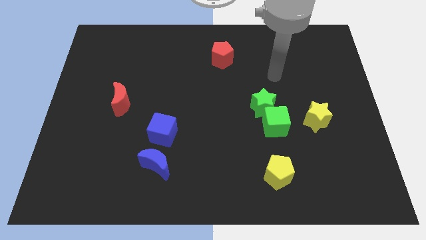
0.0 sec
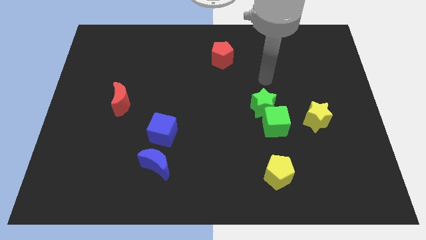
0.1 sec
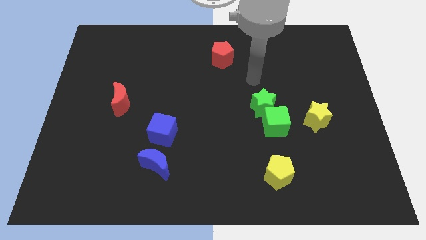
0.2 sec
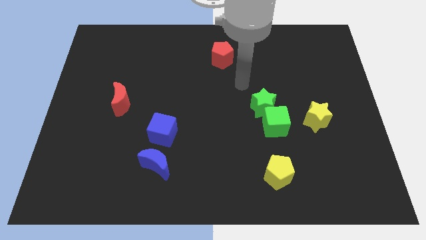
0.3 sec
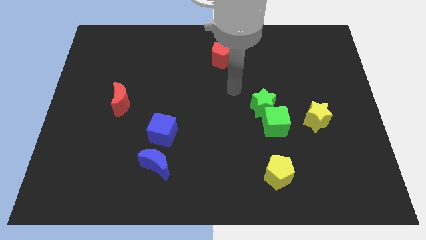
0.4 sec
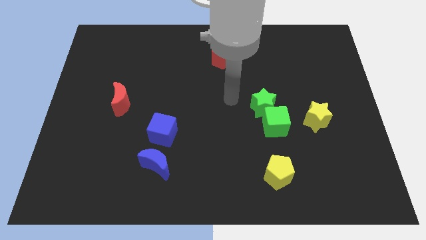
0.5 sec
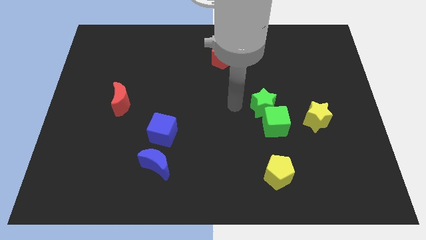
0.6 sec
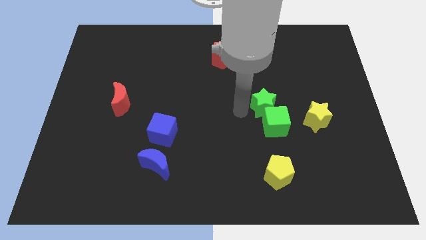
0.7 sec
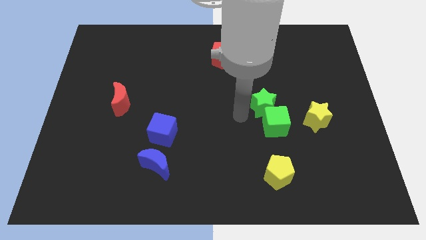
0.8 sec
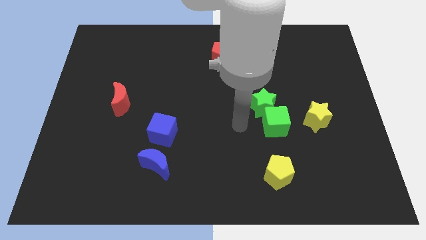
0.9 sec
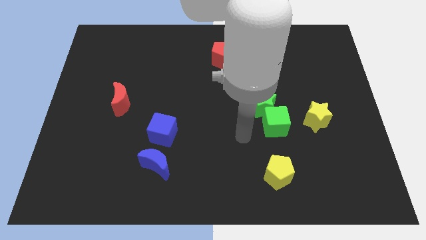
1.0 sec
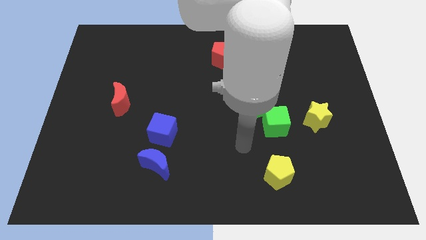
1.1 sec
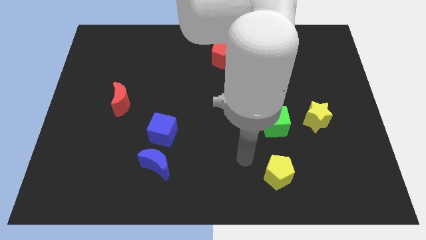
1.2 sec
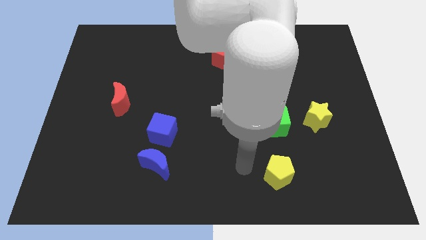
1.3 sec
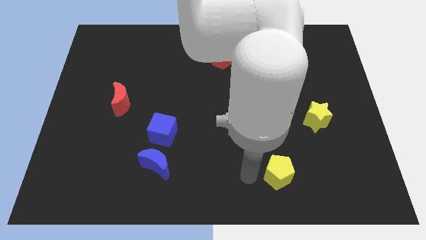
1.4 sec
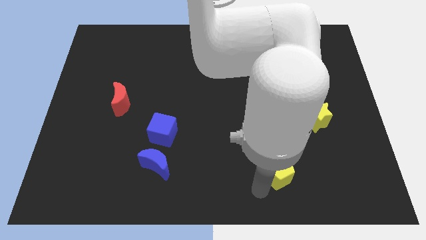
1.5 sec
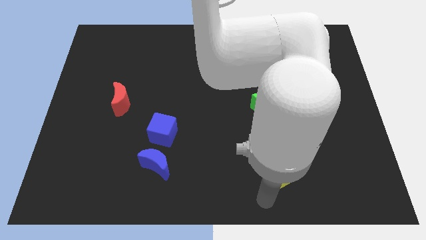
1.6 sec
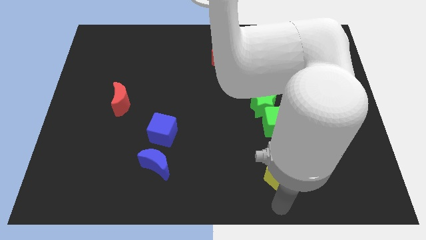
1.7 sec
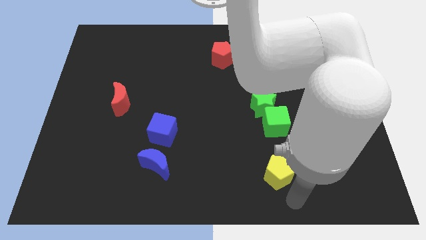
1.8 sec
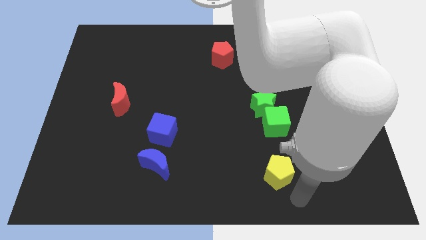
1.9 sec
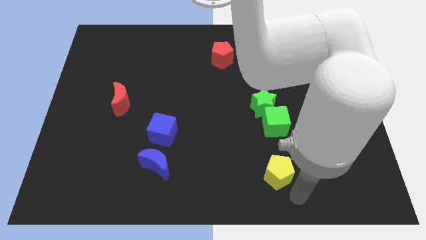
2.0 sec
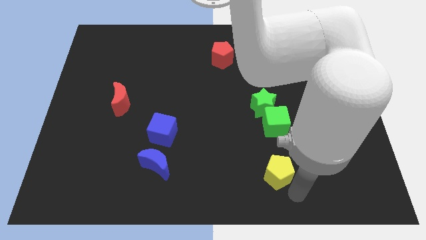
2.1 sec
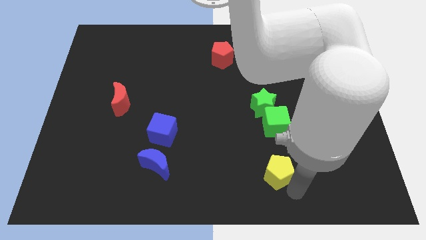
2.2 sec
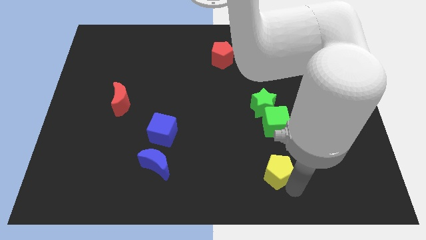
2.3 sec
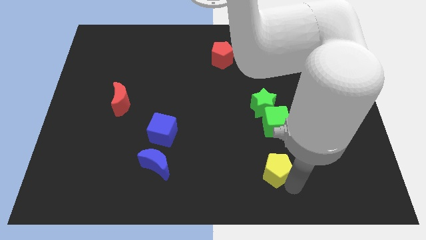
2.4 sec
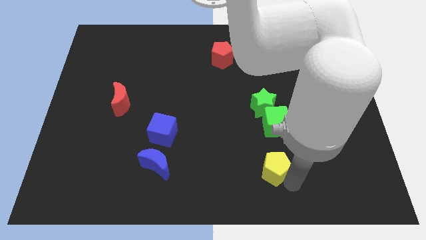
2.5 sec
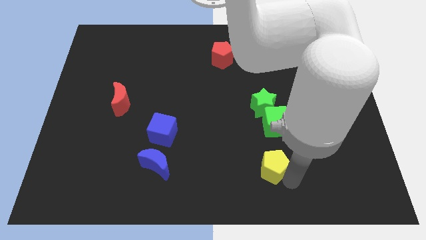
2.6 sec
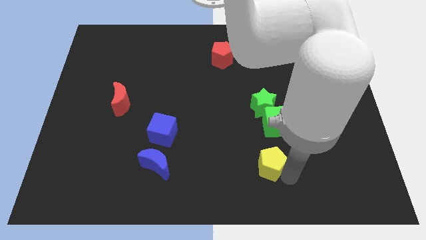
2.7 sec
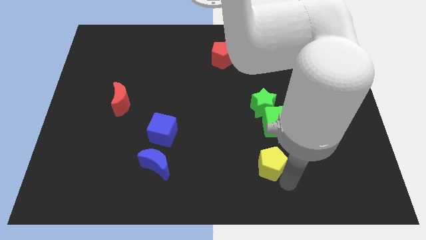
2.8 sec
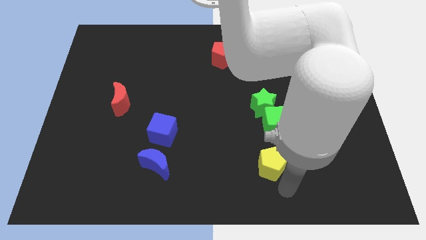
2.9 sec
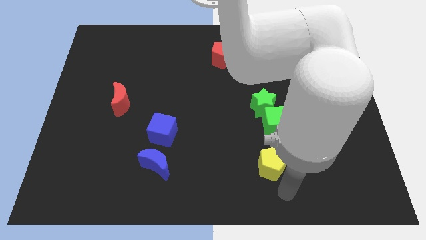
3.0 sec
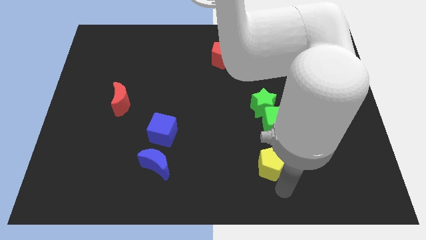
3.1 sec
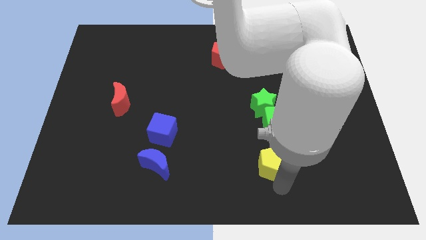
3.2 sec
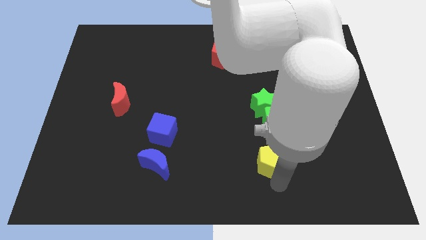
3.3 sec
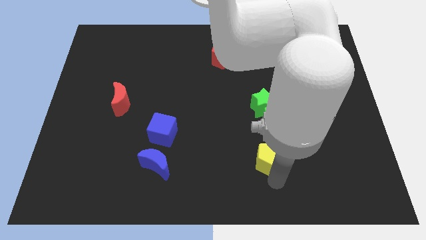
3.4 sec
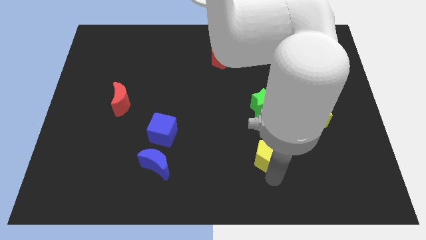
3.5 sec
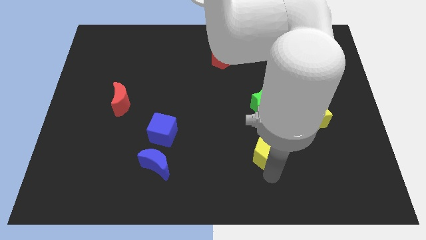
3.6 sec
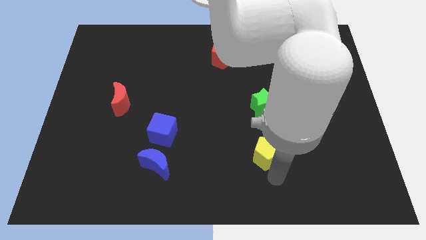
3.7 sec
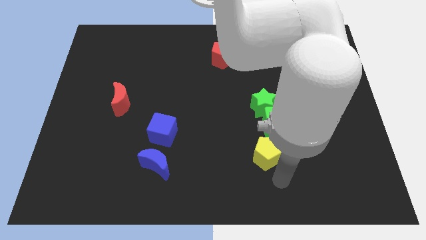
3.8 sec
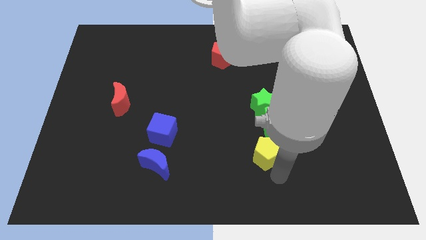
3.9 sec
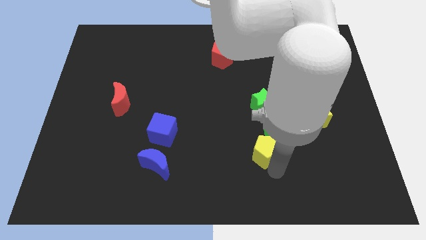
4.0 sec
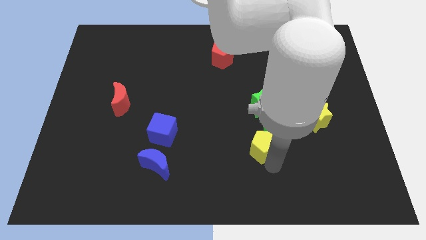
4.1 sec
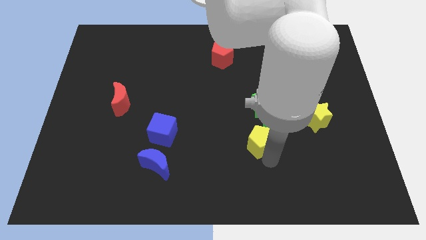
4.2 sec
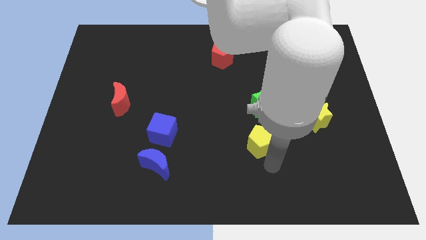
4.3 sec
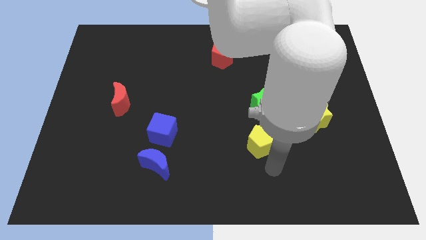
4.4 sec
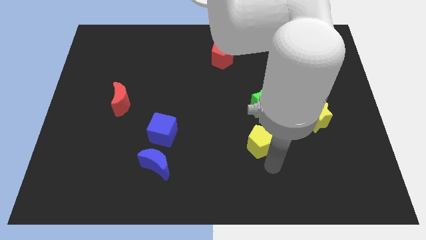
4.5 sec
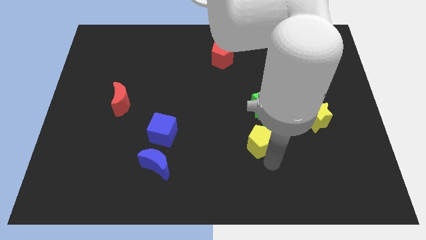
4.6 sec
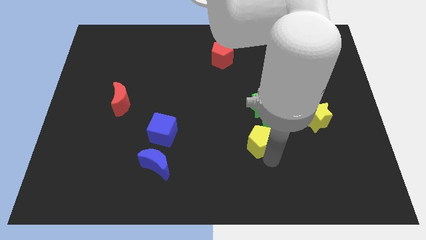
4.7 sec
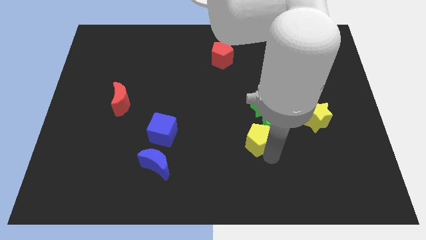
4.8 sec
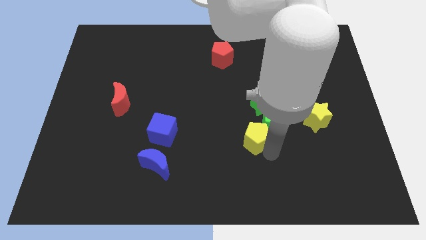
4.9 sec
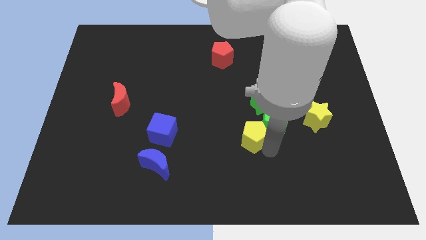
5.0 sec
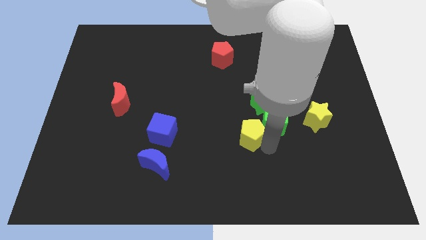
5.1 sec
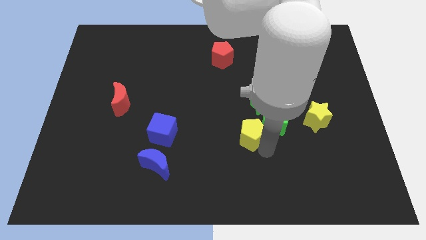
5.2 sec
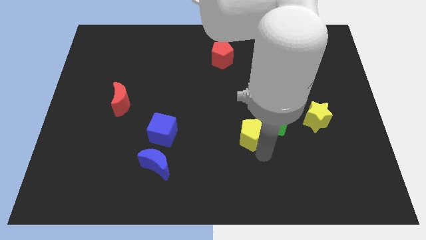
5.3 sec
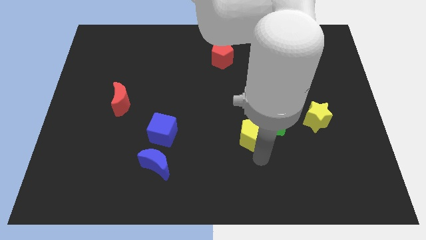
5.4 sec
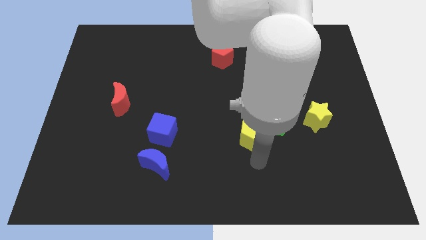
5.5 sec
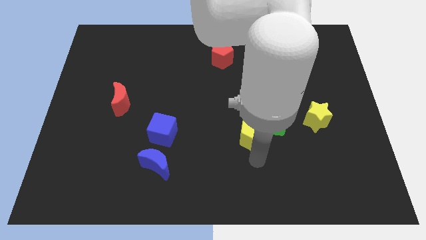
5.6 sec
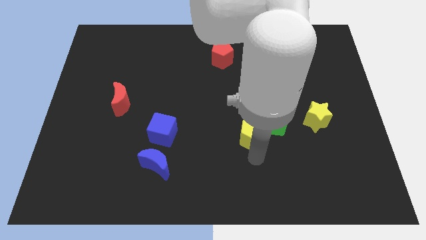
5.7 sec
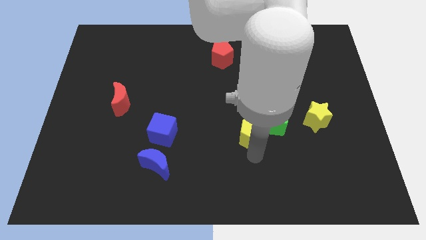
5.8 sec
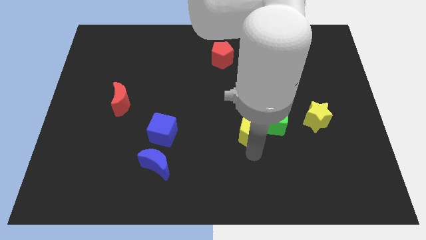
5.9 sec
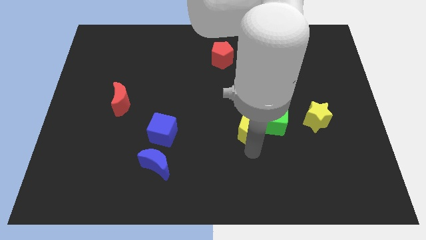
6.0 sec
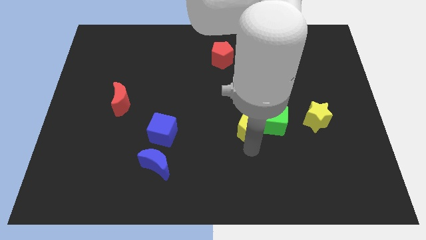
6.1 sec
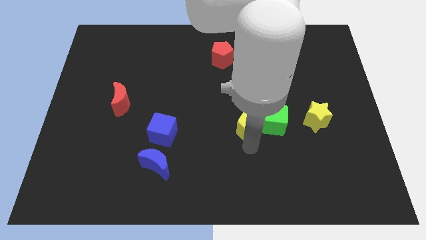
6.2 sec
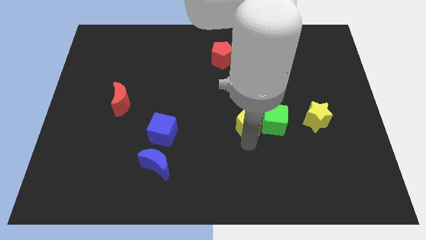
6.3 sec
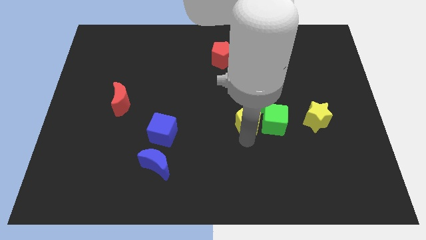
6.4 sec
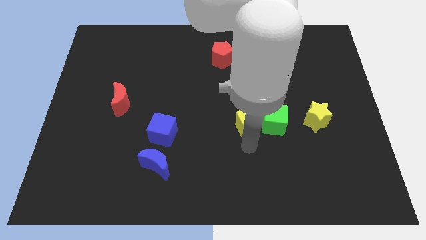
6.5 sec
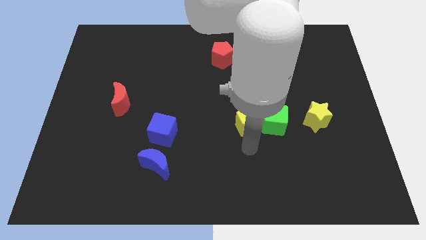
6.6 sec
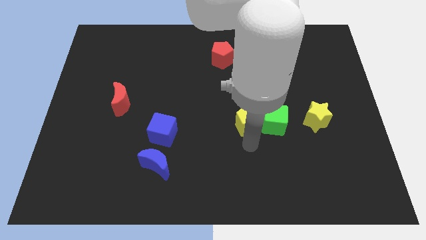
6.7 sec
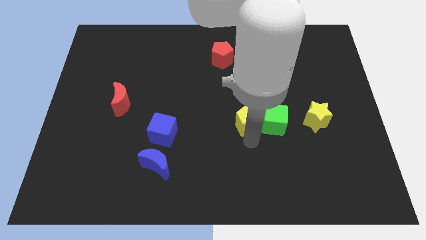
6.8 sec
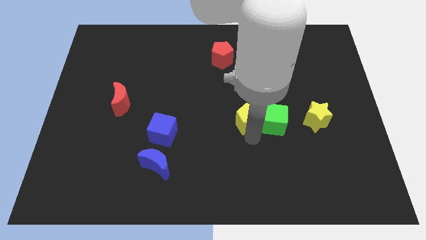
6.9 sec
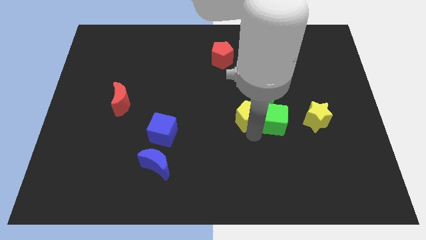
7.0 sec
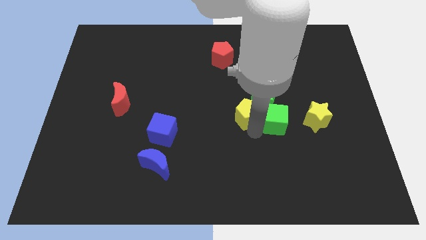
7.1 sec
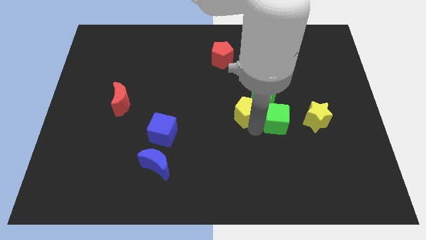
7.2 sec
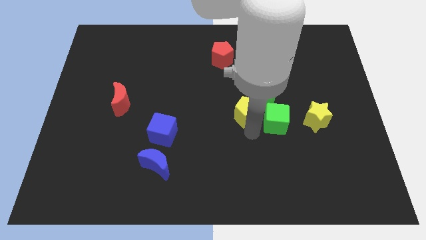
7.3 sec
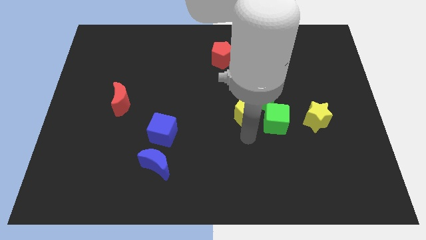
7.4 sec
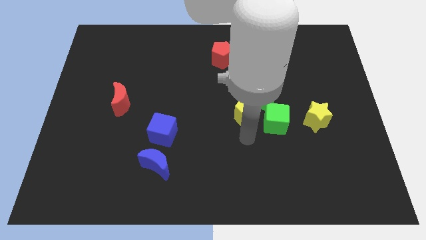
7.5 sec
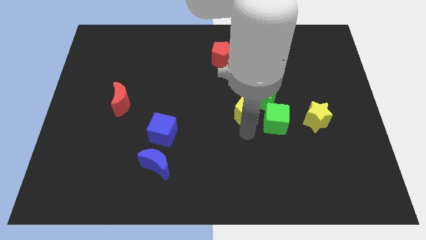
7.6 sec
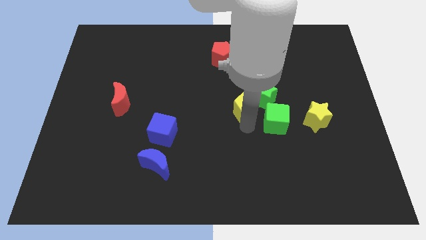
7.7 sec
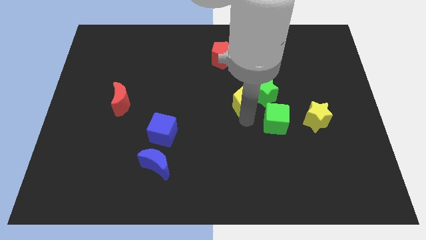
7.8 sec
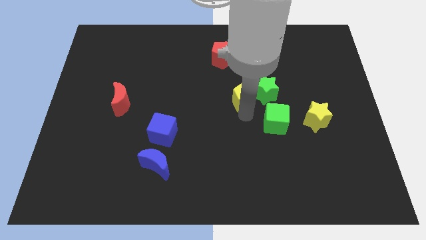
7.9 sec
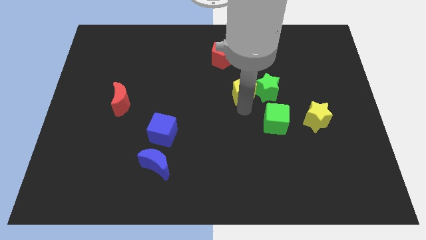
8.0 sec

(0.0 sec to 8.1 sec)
push the yellow pentagon upwards
